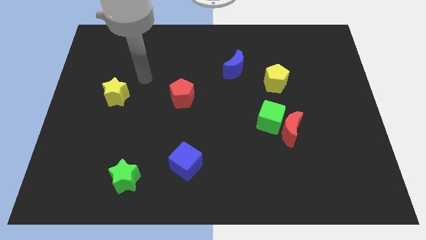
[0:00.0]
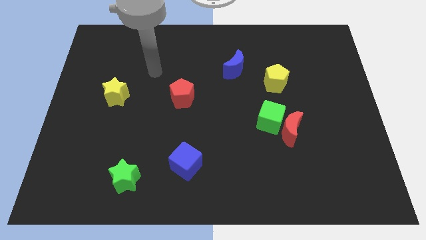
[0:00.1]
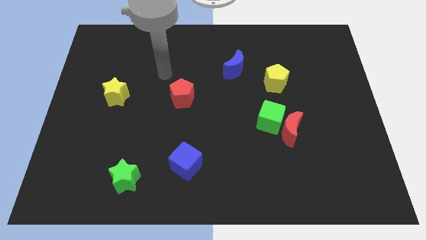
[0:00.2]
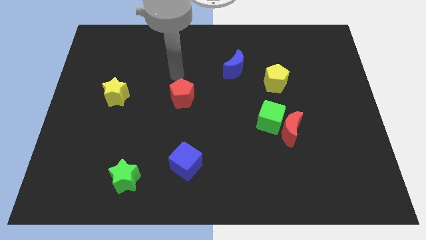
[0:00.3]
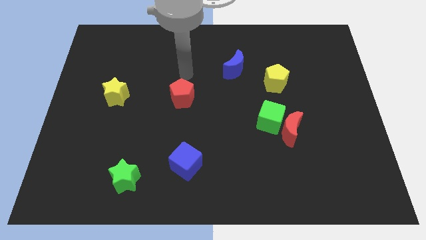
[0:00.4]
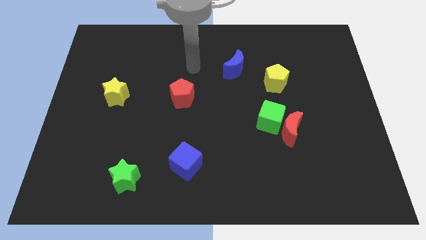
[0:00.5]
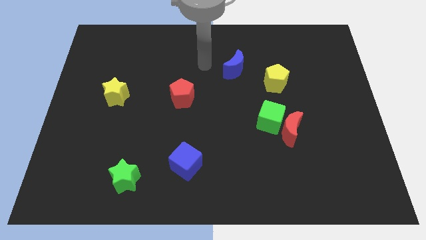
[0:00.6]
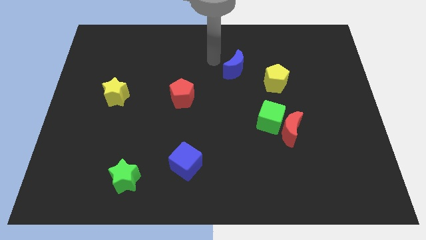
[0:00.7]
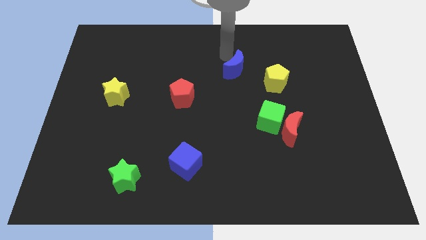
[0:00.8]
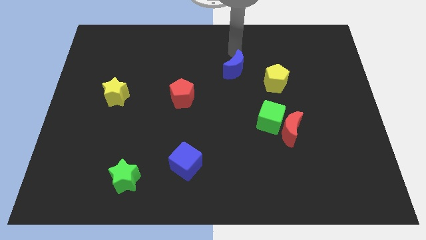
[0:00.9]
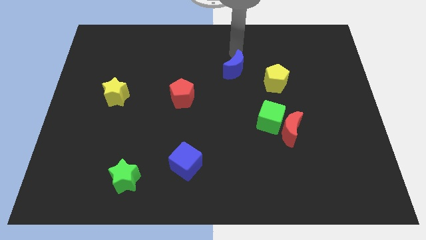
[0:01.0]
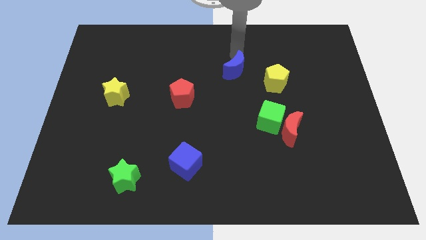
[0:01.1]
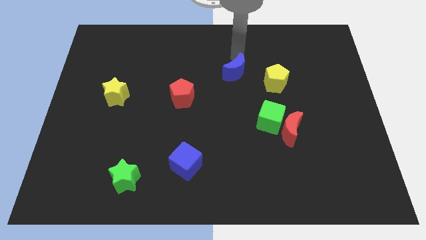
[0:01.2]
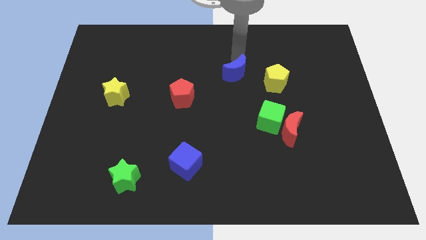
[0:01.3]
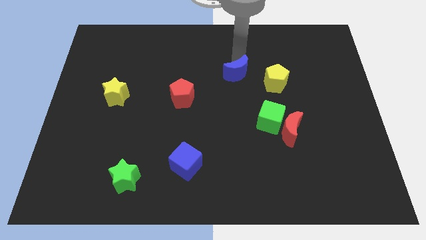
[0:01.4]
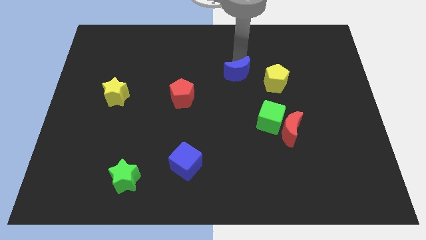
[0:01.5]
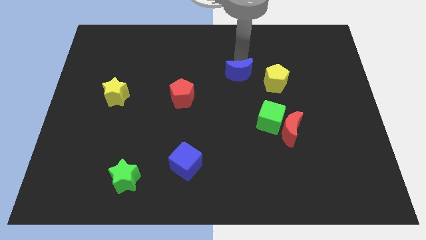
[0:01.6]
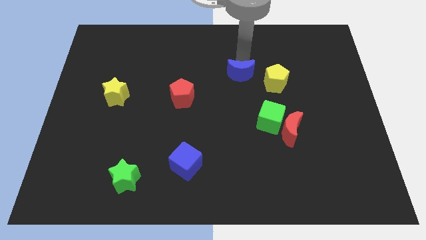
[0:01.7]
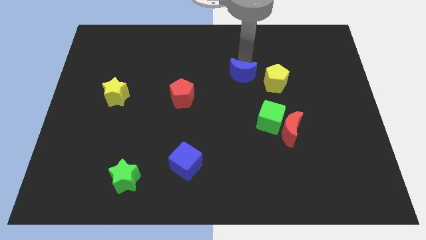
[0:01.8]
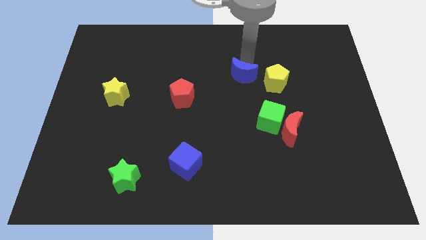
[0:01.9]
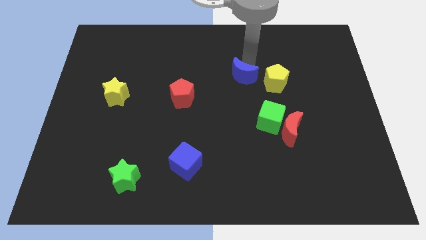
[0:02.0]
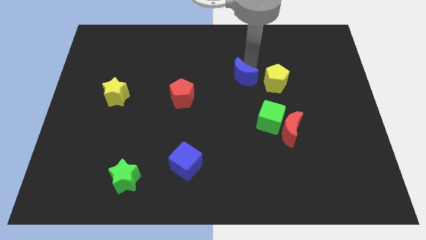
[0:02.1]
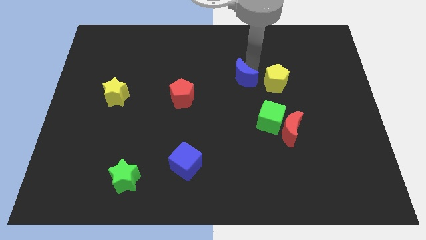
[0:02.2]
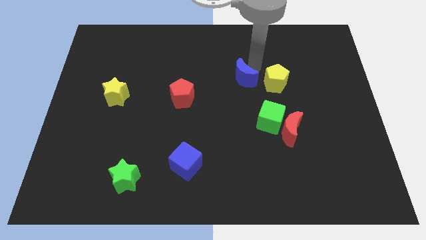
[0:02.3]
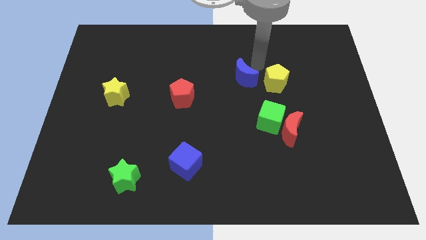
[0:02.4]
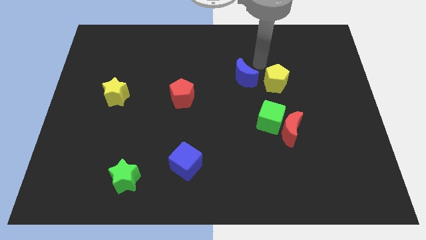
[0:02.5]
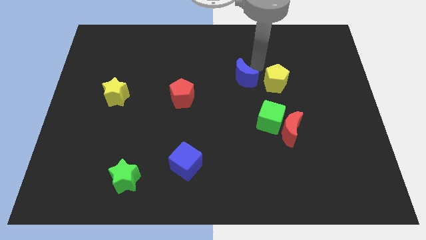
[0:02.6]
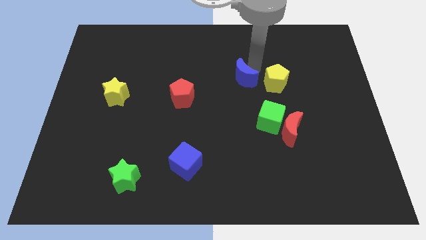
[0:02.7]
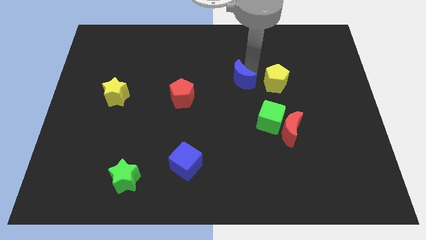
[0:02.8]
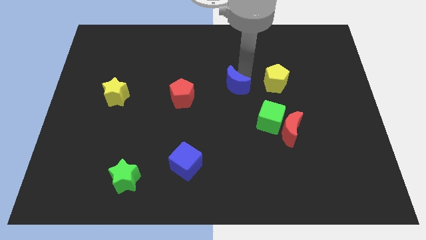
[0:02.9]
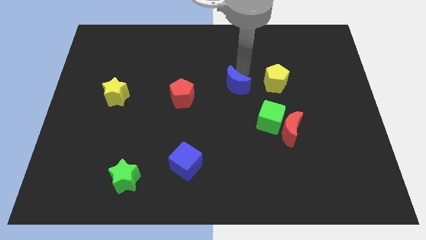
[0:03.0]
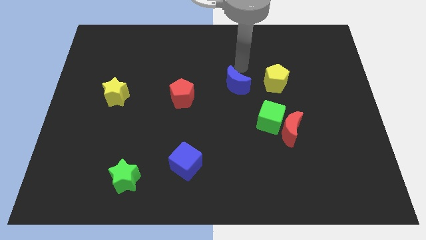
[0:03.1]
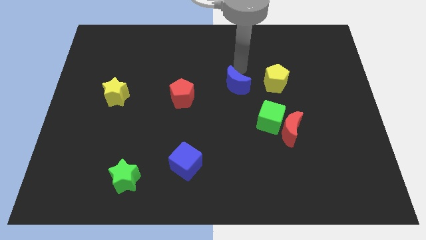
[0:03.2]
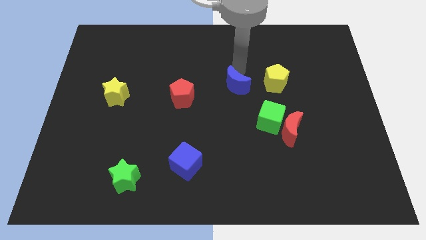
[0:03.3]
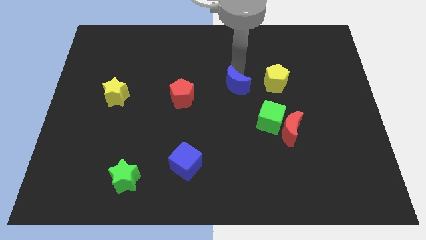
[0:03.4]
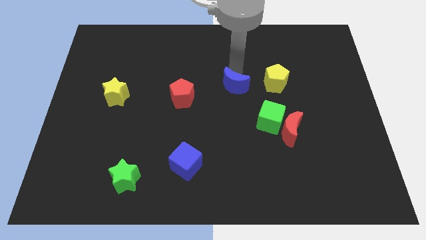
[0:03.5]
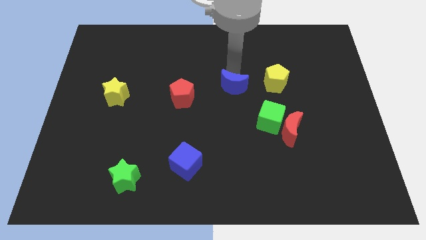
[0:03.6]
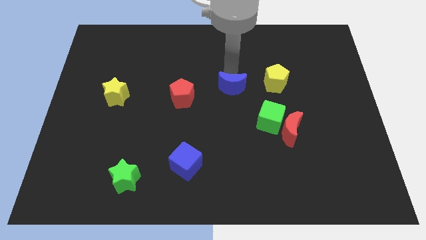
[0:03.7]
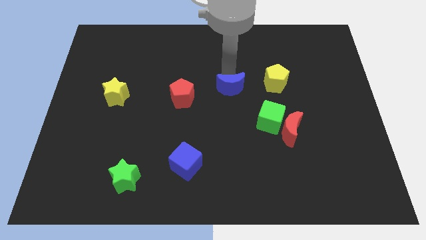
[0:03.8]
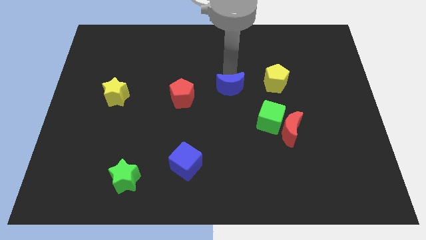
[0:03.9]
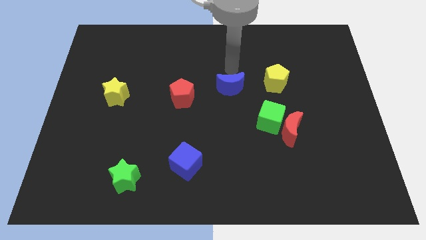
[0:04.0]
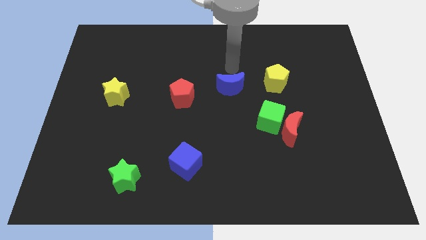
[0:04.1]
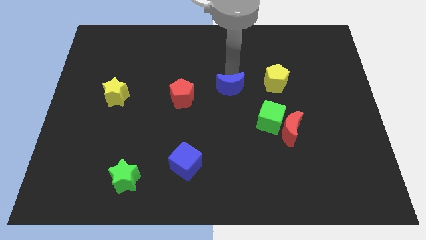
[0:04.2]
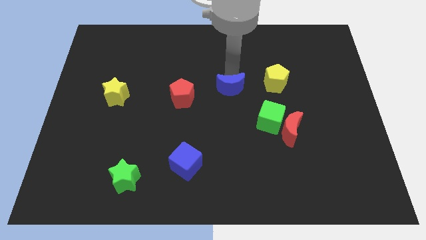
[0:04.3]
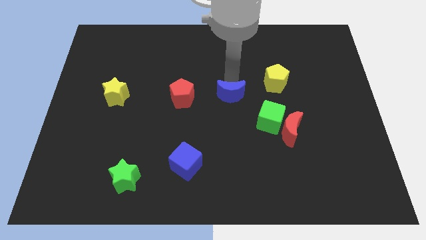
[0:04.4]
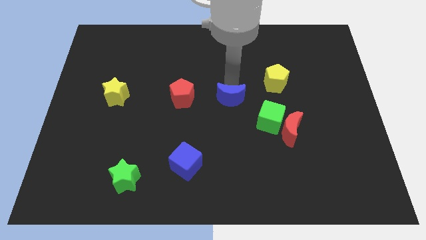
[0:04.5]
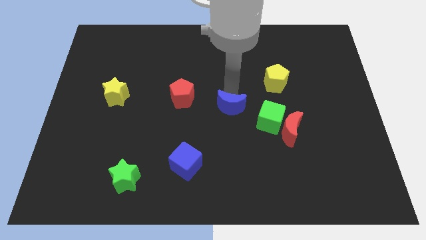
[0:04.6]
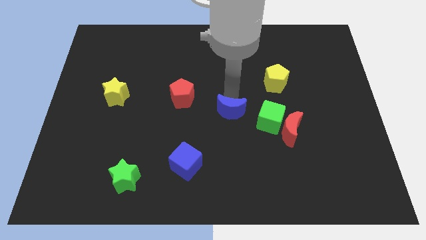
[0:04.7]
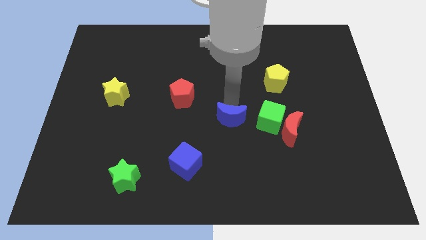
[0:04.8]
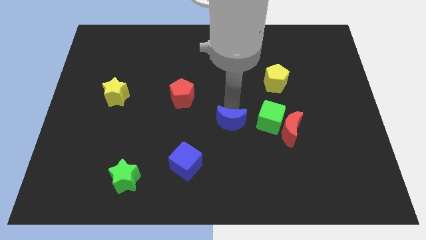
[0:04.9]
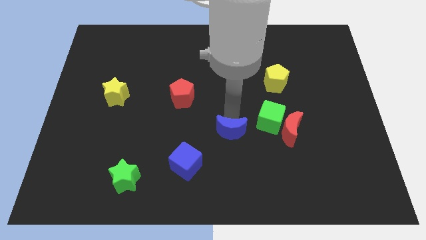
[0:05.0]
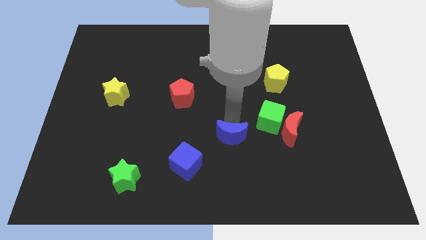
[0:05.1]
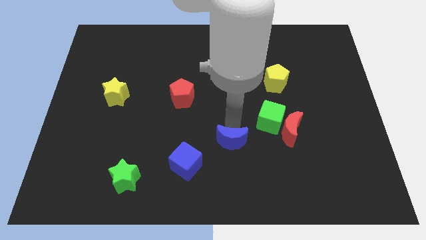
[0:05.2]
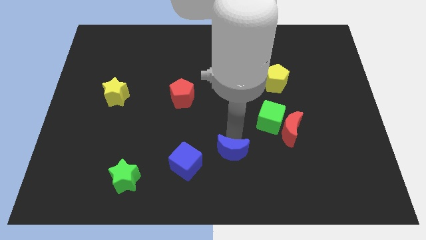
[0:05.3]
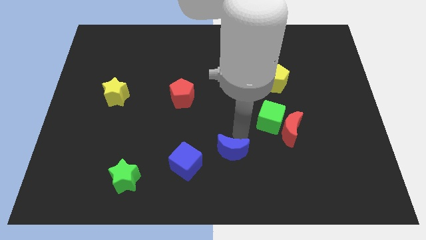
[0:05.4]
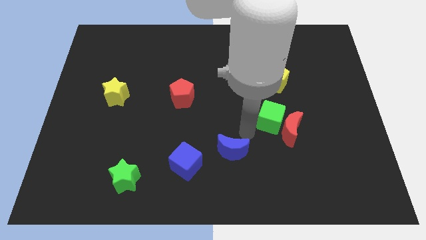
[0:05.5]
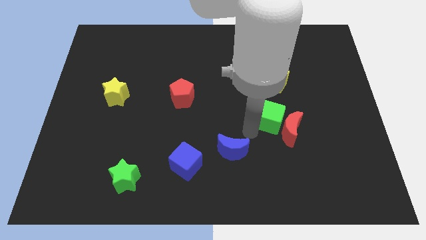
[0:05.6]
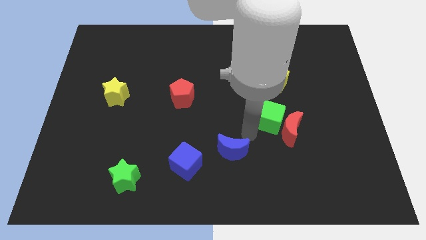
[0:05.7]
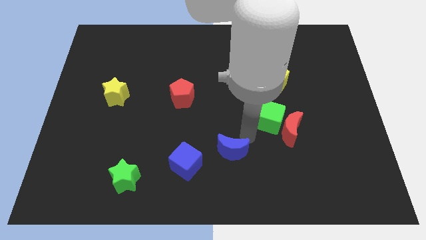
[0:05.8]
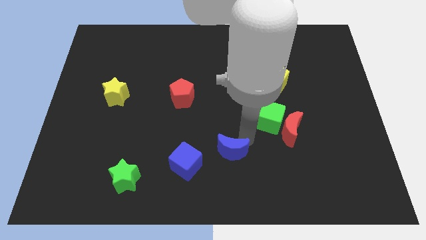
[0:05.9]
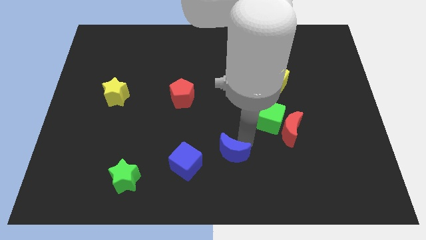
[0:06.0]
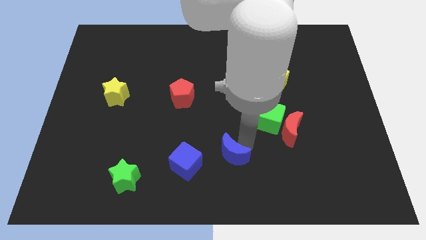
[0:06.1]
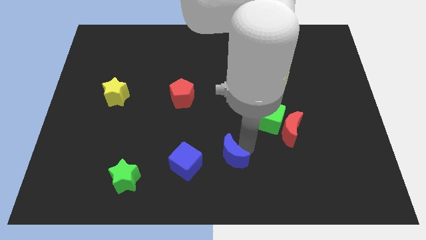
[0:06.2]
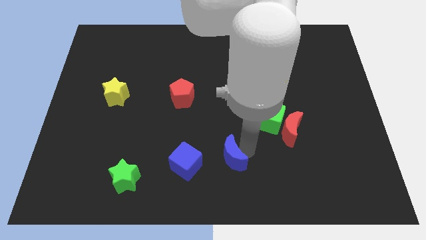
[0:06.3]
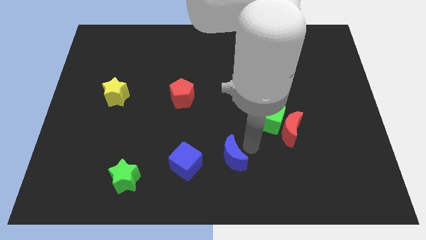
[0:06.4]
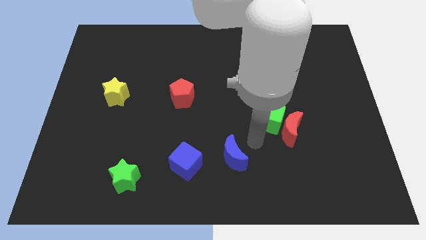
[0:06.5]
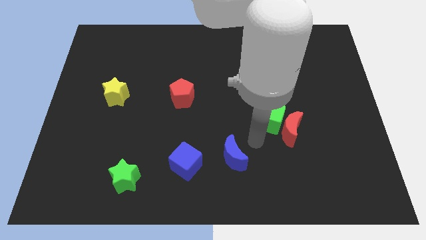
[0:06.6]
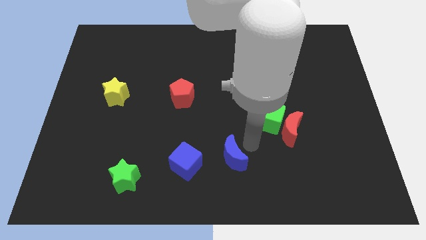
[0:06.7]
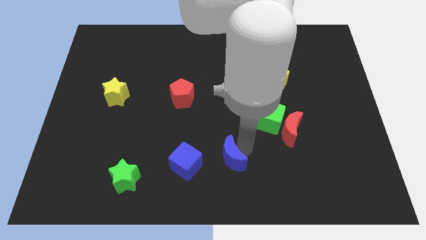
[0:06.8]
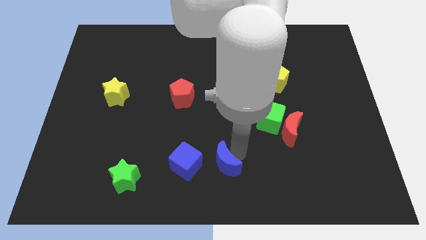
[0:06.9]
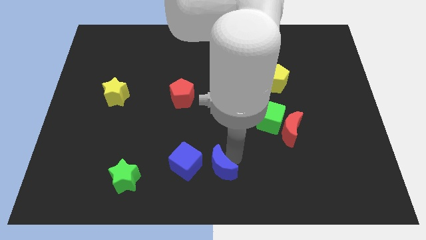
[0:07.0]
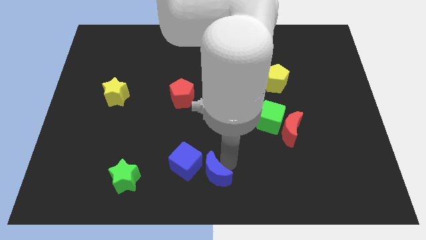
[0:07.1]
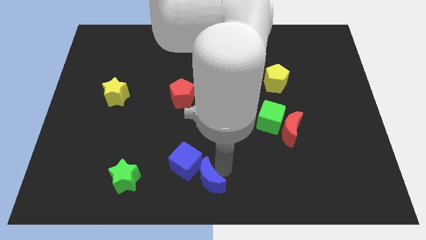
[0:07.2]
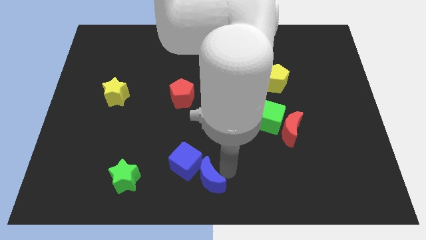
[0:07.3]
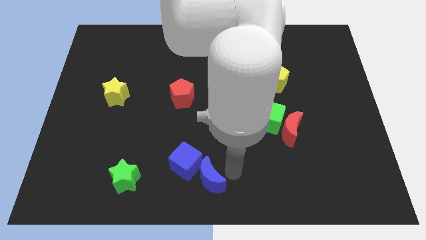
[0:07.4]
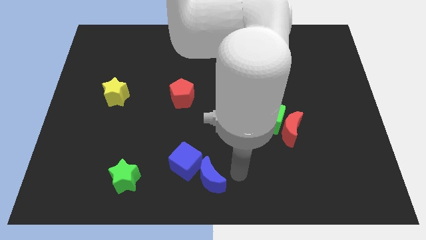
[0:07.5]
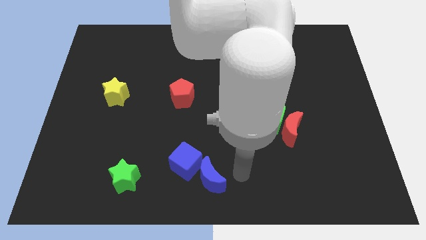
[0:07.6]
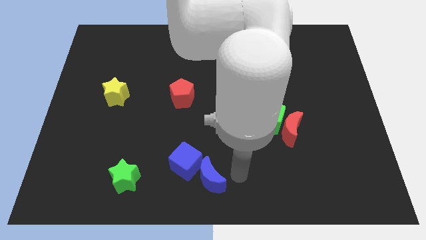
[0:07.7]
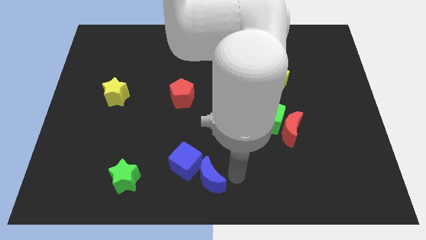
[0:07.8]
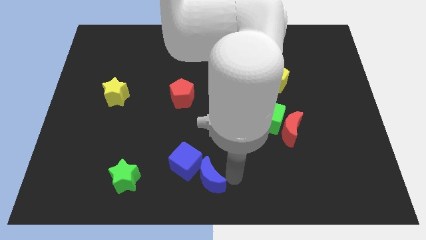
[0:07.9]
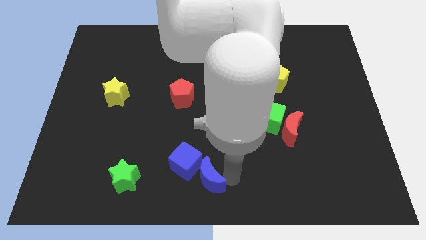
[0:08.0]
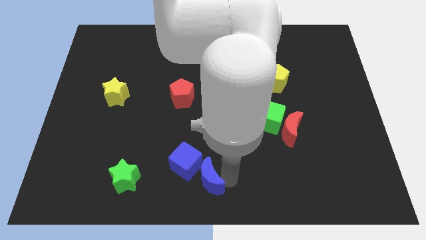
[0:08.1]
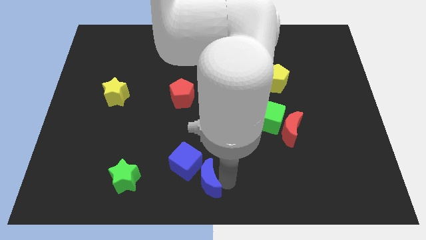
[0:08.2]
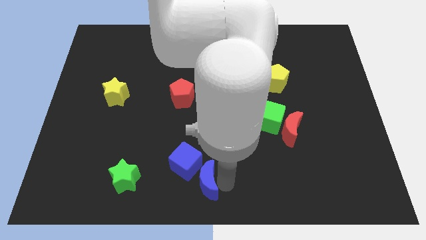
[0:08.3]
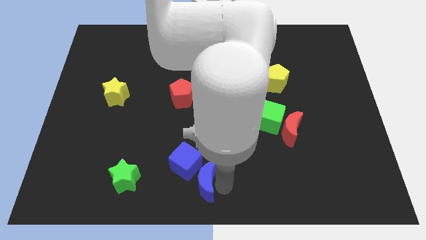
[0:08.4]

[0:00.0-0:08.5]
push the blue moon to the right of the green star
